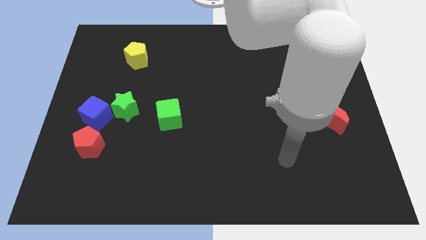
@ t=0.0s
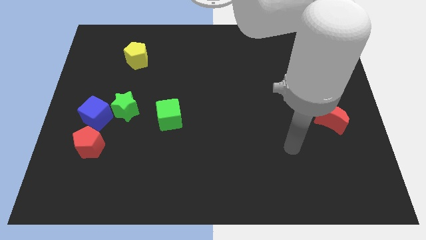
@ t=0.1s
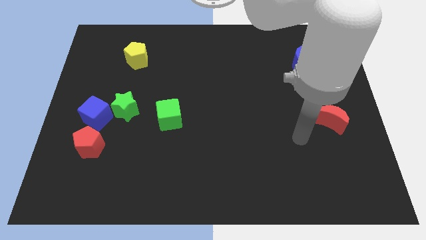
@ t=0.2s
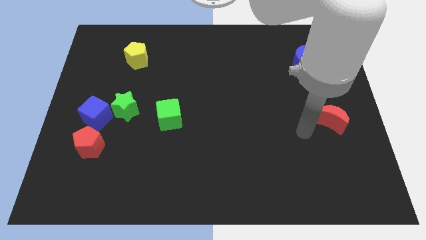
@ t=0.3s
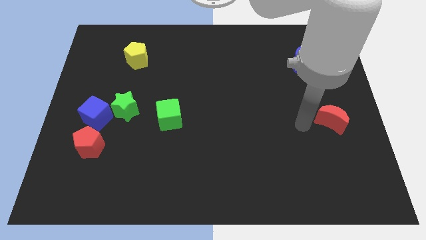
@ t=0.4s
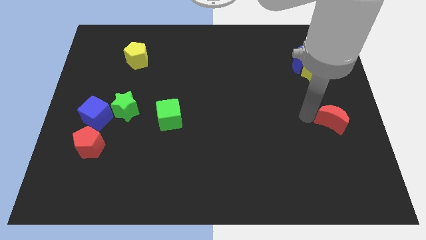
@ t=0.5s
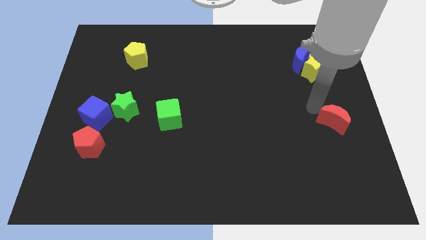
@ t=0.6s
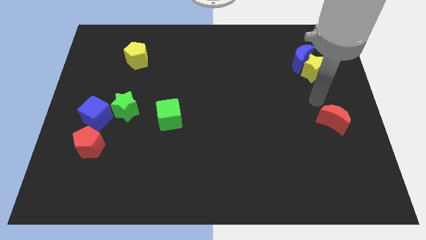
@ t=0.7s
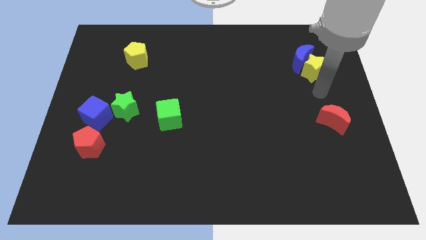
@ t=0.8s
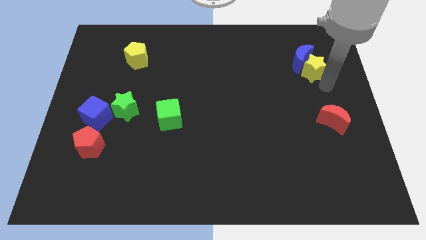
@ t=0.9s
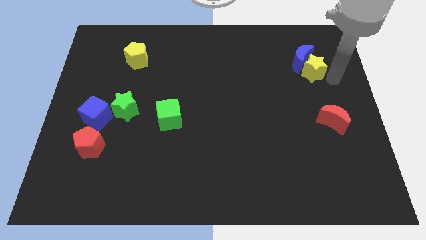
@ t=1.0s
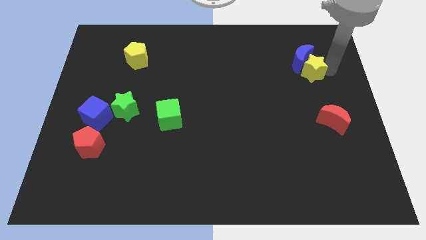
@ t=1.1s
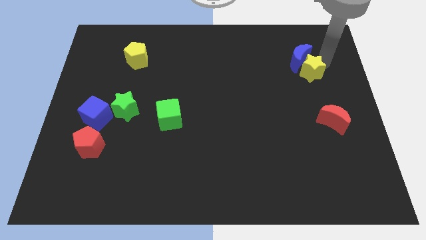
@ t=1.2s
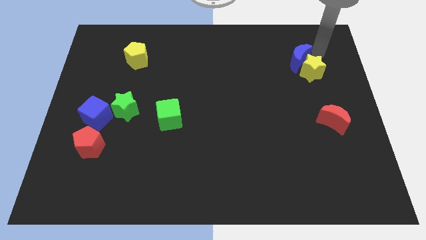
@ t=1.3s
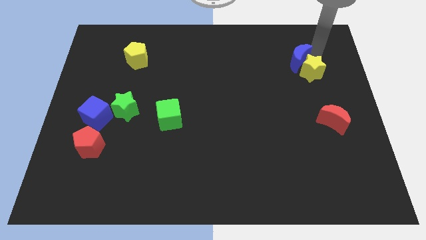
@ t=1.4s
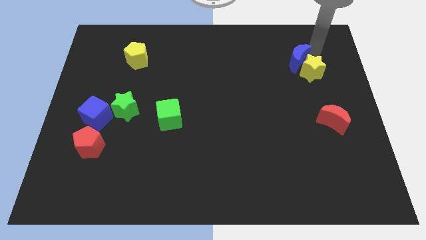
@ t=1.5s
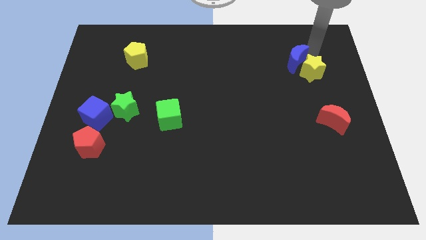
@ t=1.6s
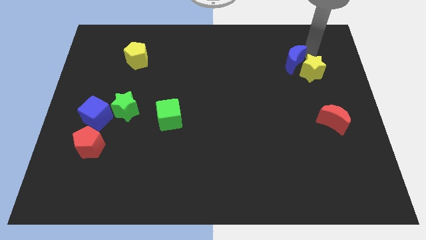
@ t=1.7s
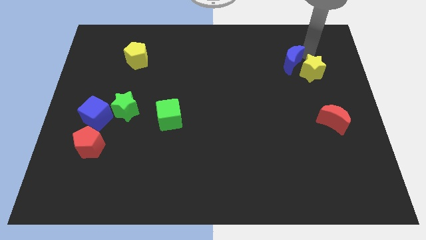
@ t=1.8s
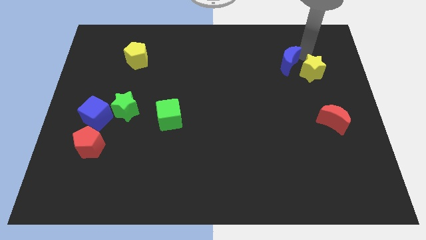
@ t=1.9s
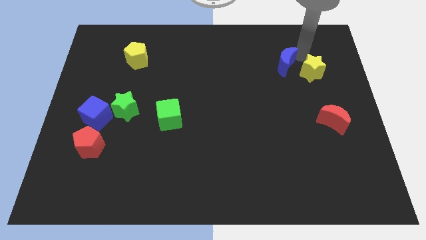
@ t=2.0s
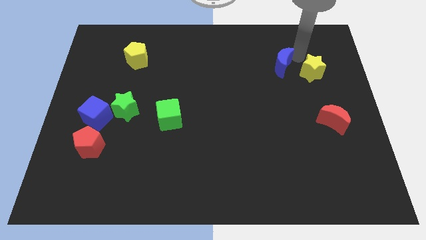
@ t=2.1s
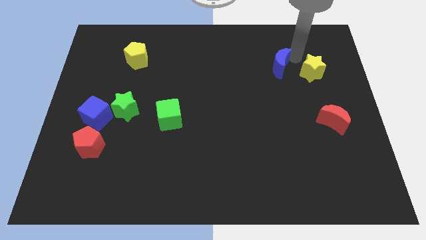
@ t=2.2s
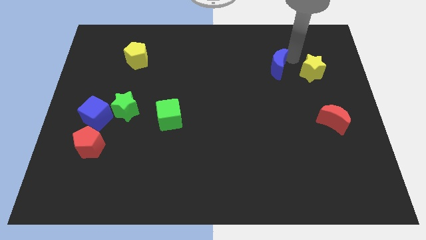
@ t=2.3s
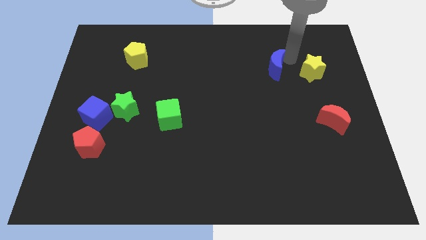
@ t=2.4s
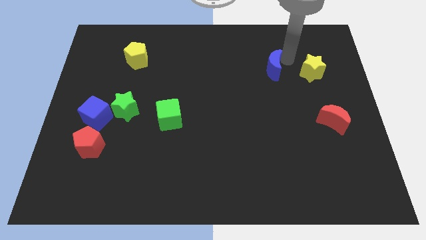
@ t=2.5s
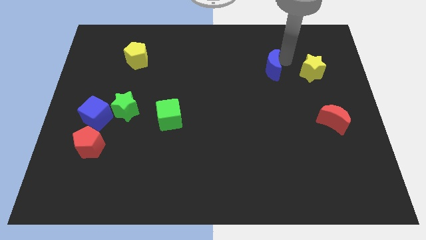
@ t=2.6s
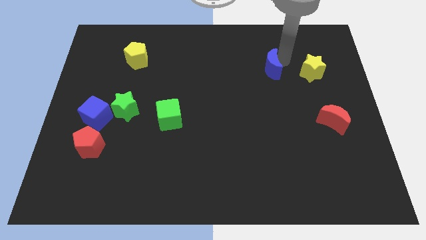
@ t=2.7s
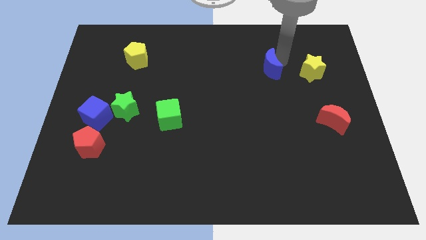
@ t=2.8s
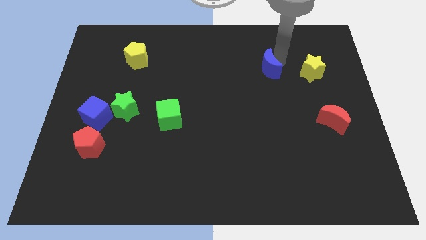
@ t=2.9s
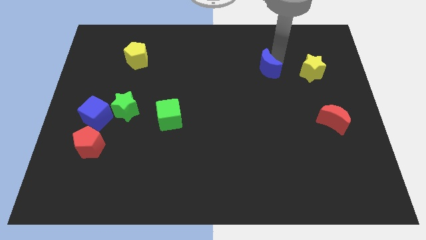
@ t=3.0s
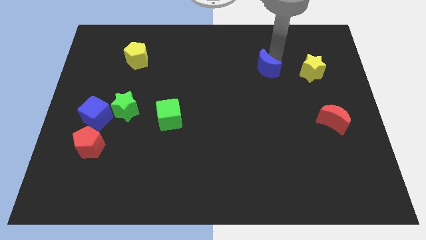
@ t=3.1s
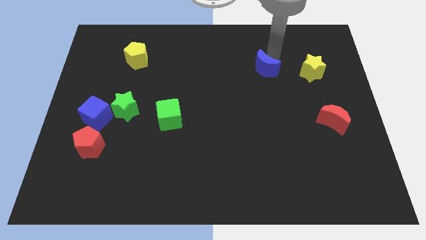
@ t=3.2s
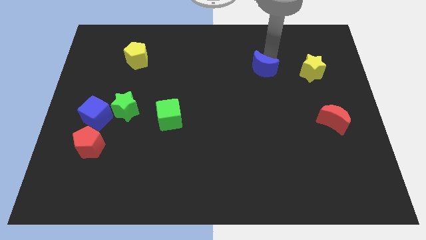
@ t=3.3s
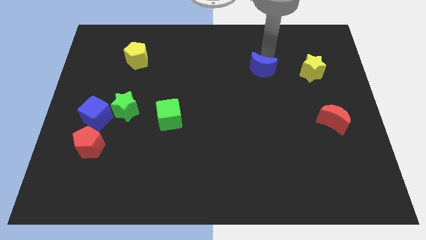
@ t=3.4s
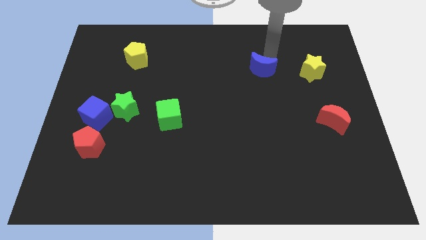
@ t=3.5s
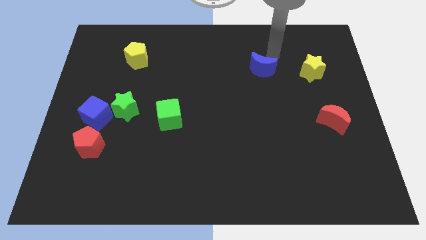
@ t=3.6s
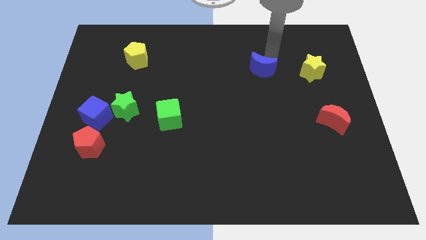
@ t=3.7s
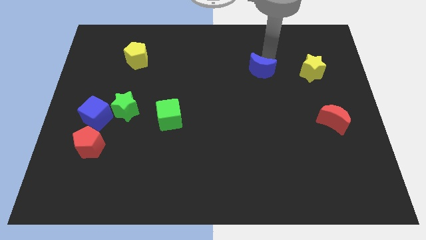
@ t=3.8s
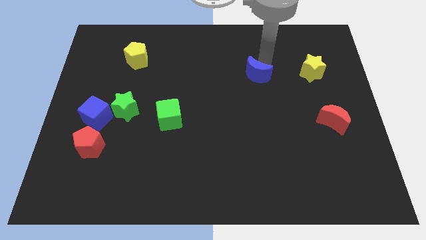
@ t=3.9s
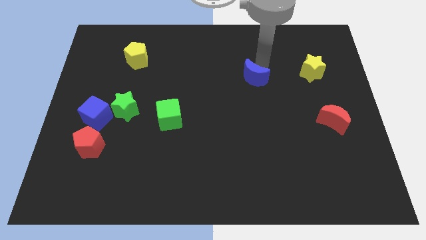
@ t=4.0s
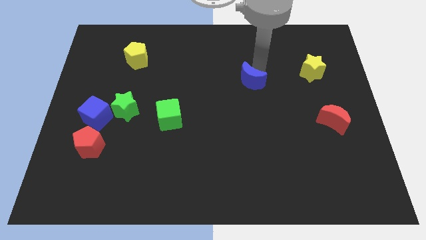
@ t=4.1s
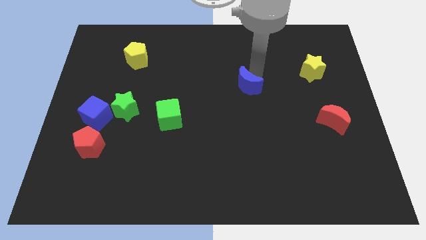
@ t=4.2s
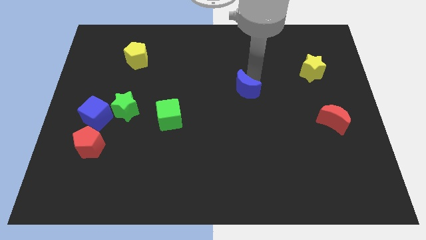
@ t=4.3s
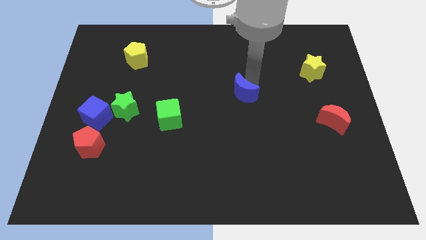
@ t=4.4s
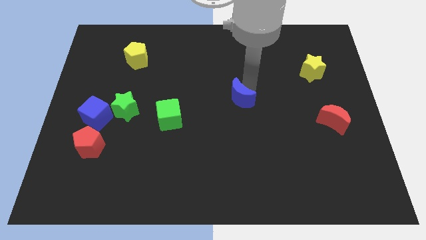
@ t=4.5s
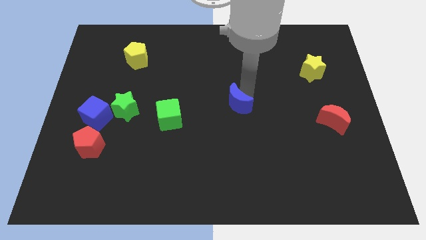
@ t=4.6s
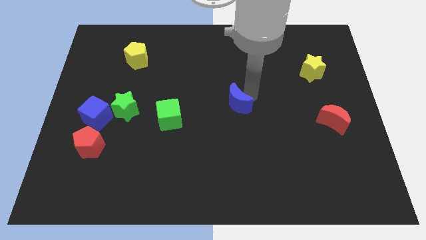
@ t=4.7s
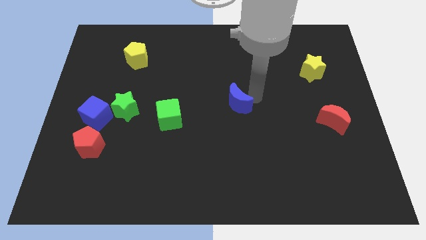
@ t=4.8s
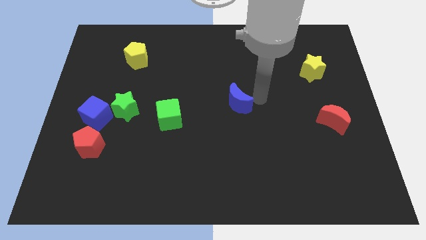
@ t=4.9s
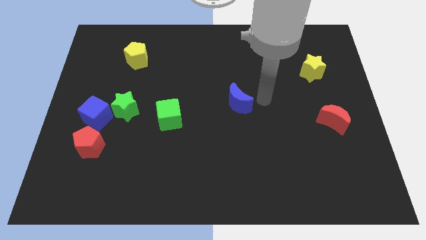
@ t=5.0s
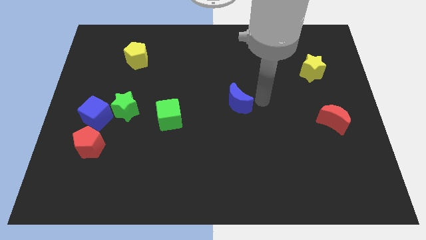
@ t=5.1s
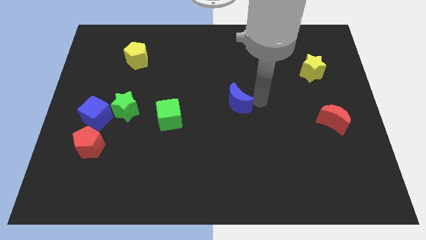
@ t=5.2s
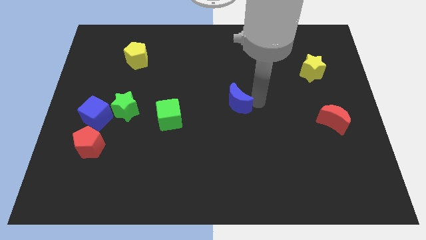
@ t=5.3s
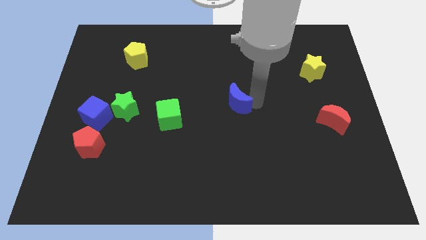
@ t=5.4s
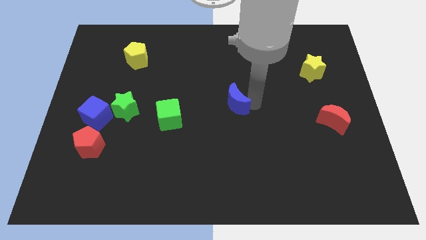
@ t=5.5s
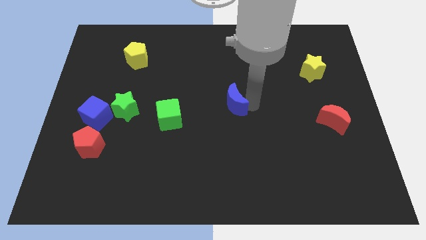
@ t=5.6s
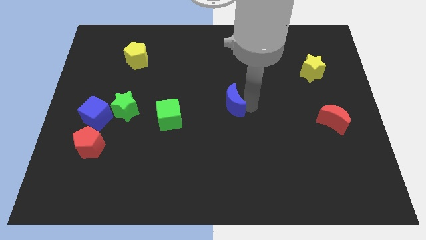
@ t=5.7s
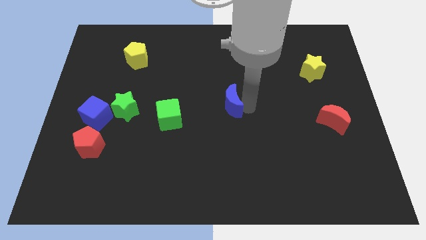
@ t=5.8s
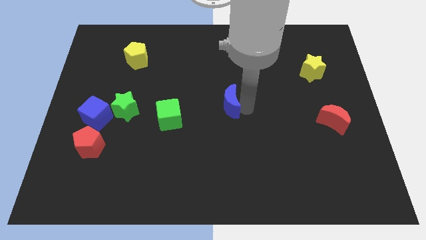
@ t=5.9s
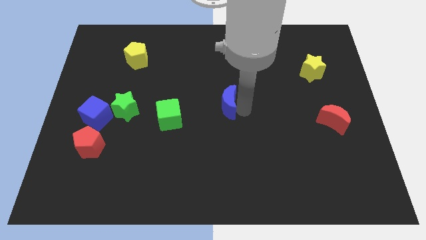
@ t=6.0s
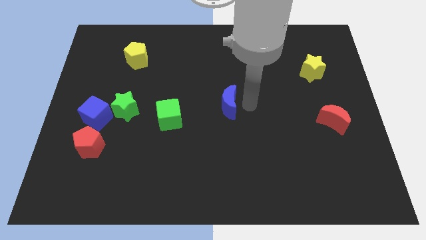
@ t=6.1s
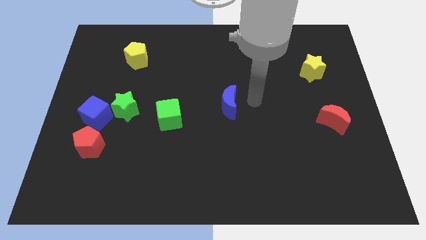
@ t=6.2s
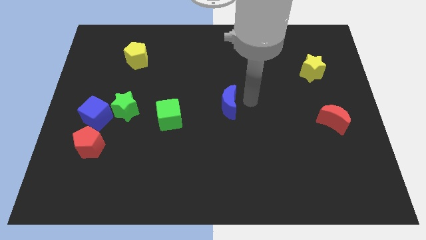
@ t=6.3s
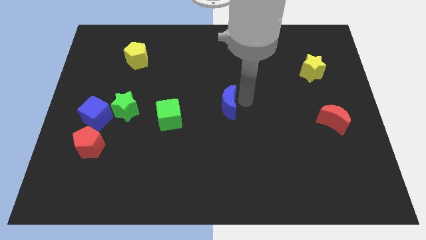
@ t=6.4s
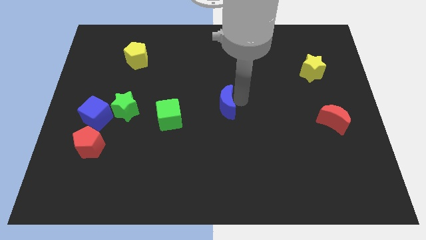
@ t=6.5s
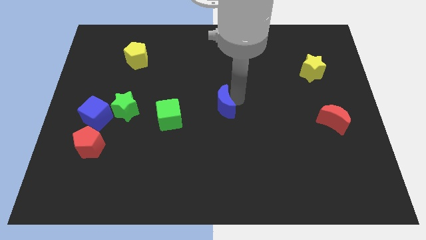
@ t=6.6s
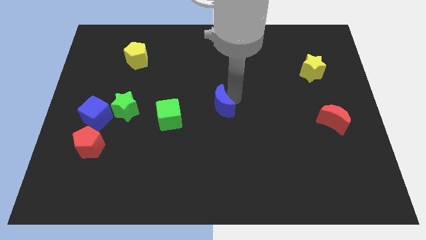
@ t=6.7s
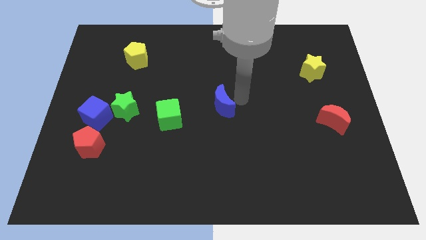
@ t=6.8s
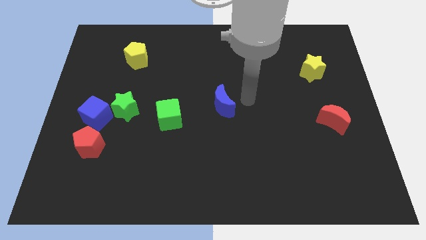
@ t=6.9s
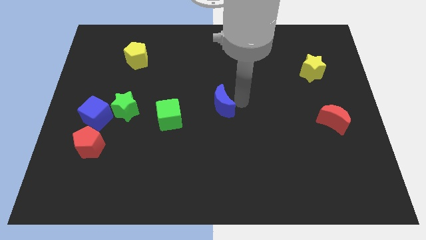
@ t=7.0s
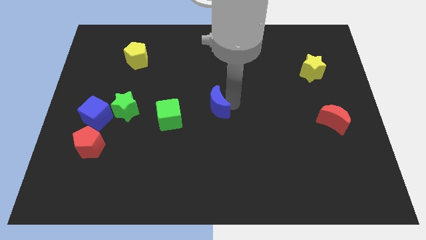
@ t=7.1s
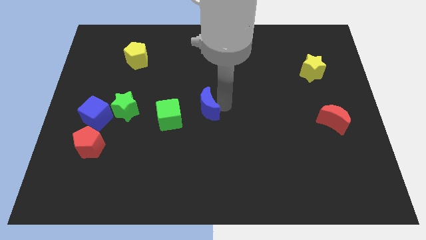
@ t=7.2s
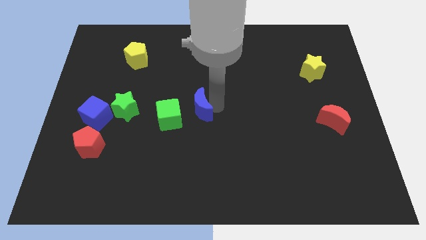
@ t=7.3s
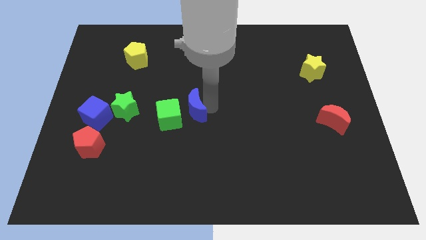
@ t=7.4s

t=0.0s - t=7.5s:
move the blue moon close to the green cube
